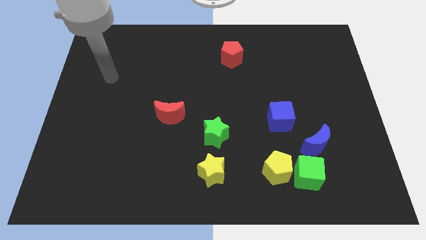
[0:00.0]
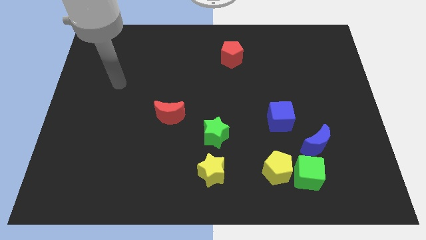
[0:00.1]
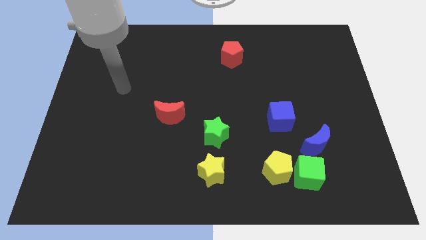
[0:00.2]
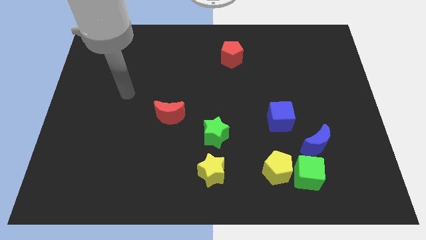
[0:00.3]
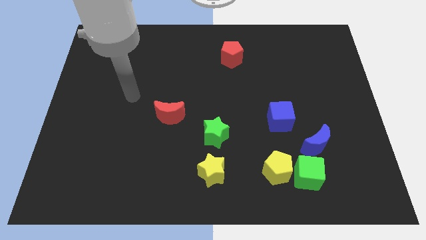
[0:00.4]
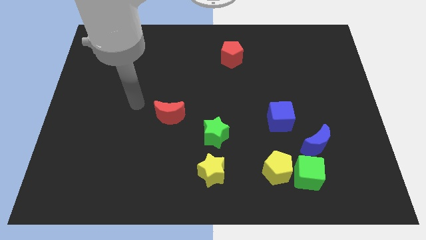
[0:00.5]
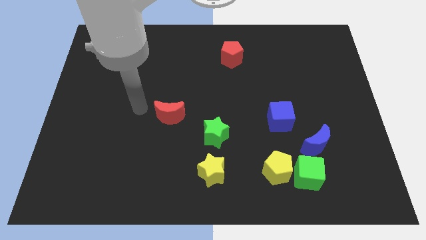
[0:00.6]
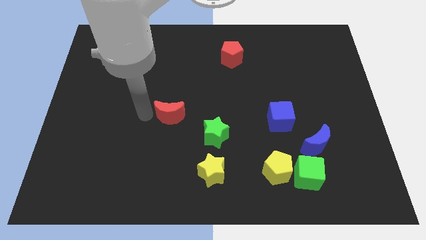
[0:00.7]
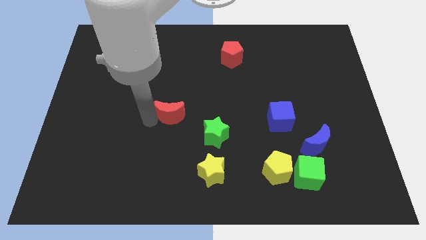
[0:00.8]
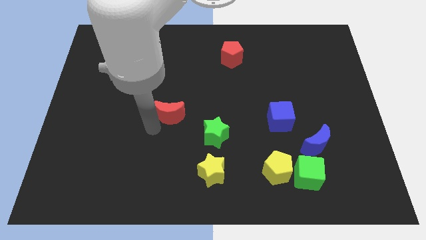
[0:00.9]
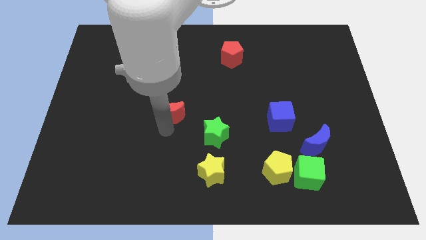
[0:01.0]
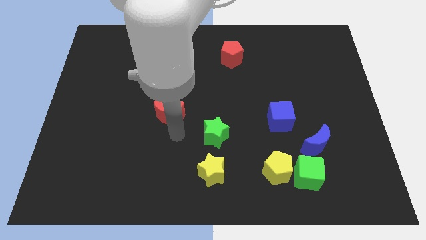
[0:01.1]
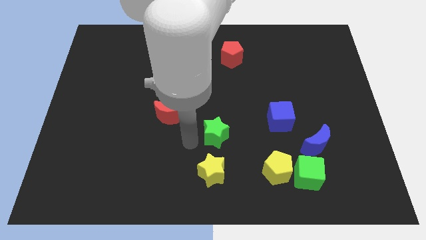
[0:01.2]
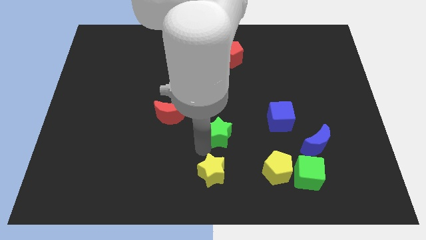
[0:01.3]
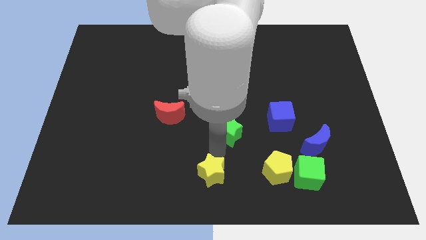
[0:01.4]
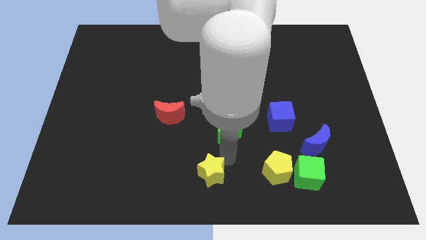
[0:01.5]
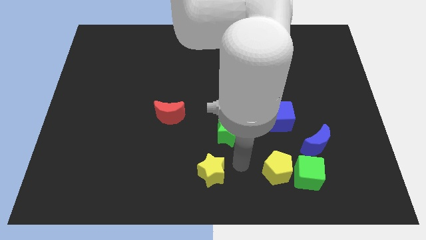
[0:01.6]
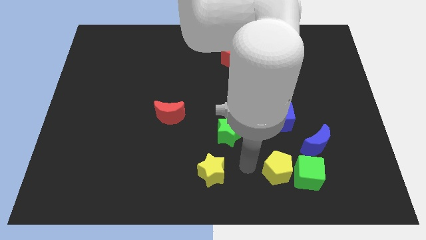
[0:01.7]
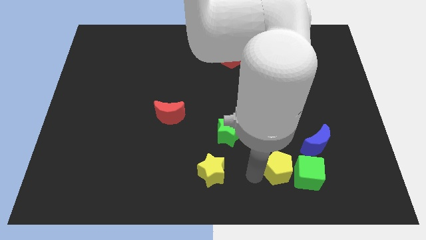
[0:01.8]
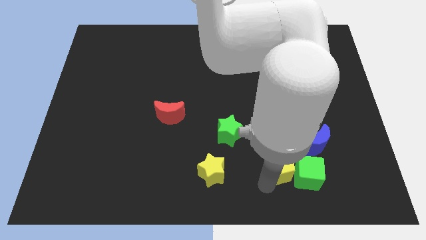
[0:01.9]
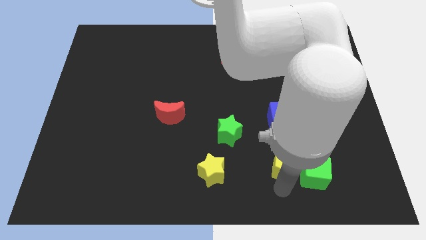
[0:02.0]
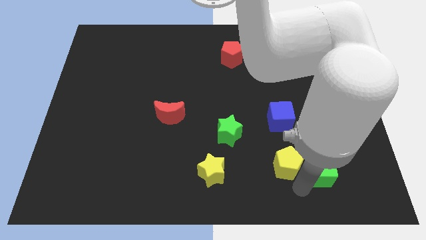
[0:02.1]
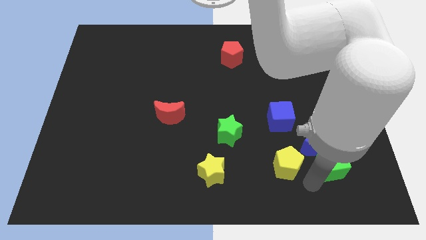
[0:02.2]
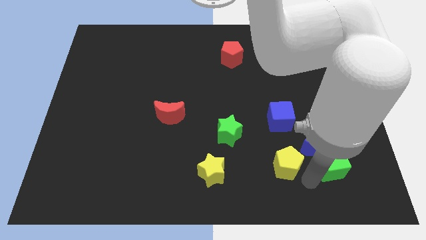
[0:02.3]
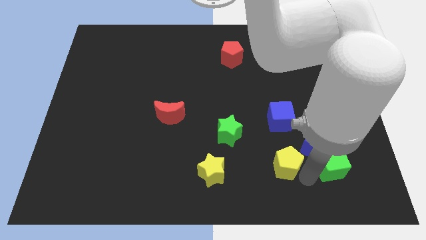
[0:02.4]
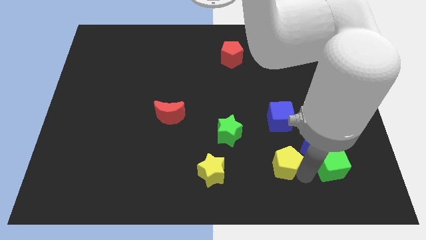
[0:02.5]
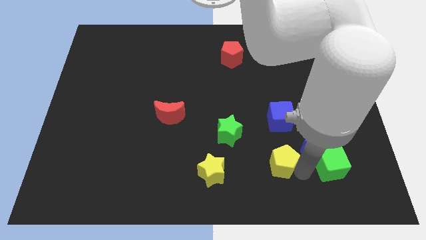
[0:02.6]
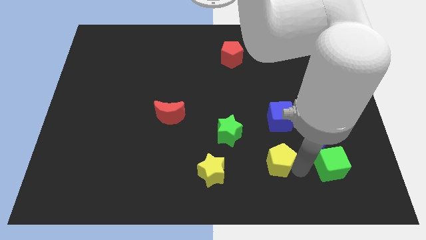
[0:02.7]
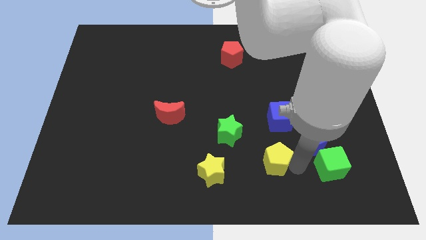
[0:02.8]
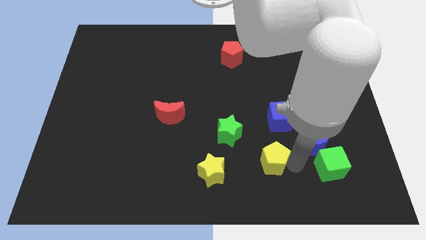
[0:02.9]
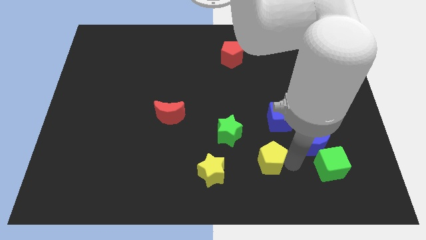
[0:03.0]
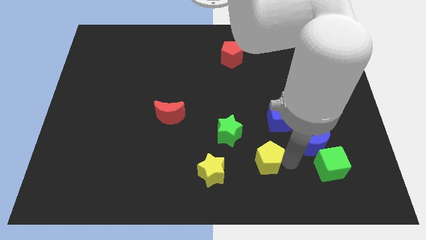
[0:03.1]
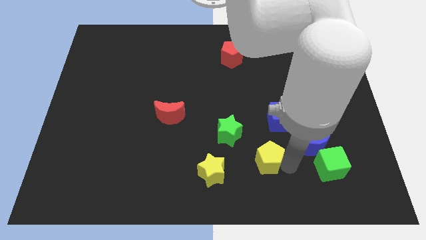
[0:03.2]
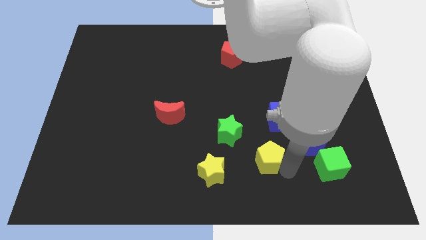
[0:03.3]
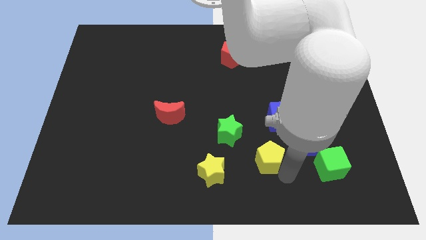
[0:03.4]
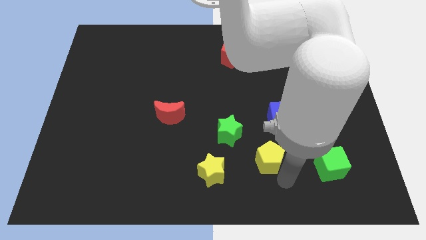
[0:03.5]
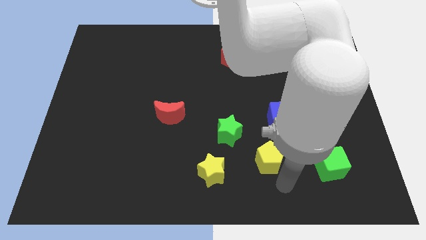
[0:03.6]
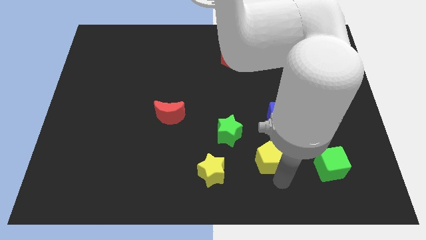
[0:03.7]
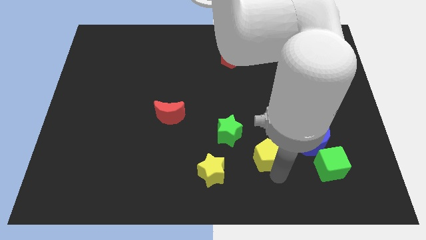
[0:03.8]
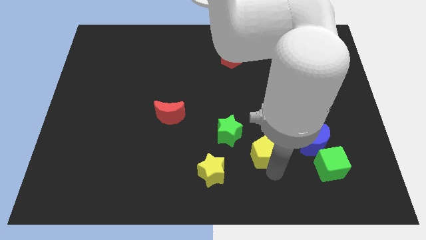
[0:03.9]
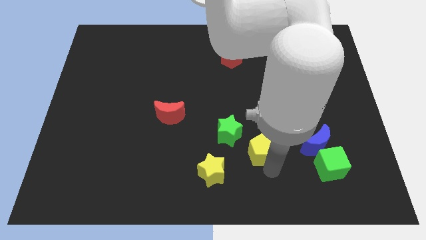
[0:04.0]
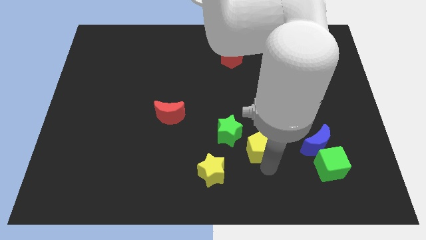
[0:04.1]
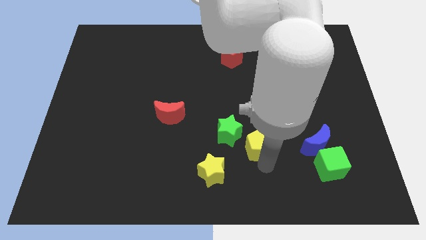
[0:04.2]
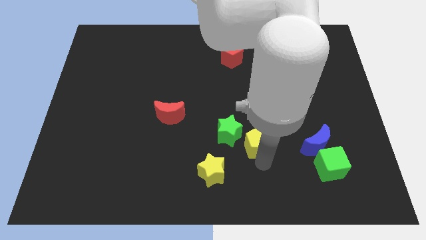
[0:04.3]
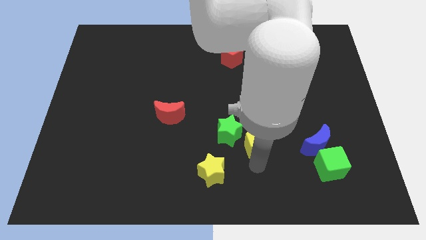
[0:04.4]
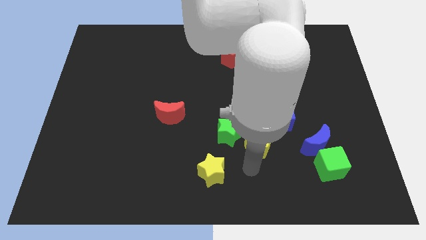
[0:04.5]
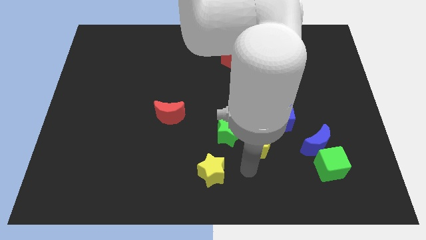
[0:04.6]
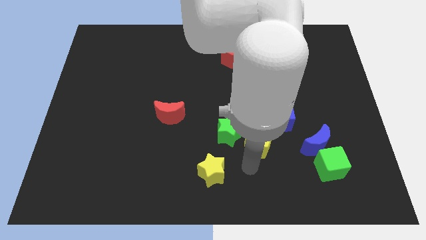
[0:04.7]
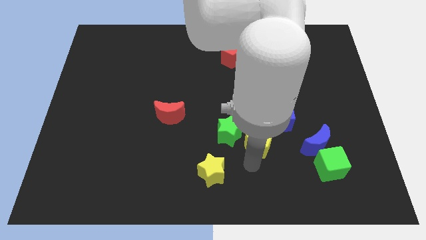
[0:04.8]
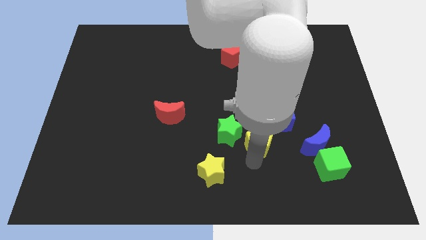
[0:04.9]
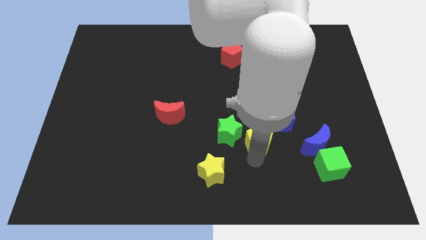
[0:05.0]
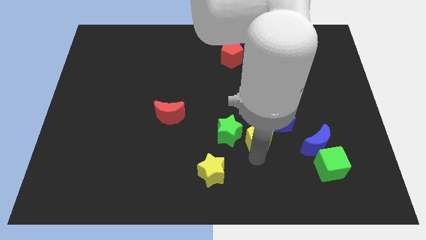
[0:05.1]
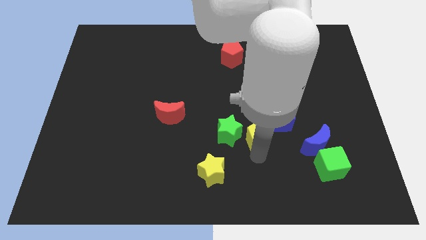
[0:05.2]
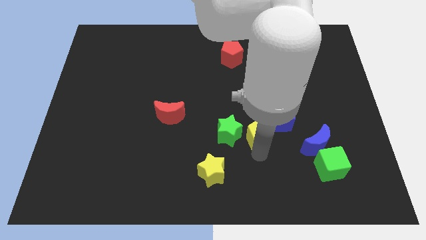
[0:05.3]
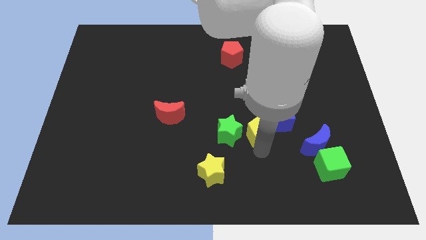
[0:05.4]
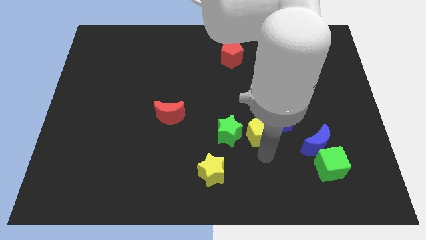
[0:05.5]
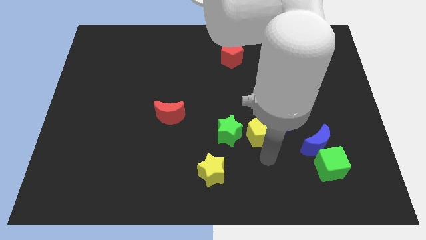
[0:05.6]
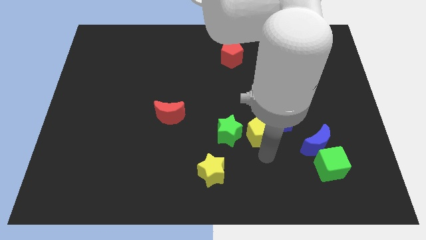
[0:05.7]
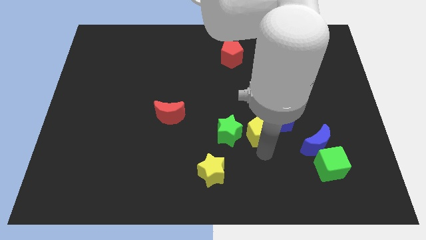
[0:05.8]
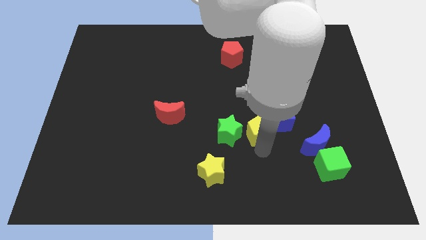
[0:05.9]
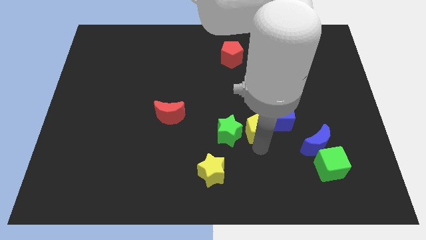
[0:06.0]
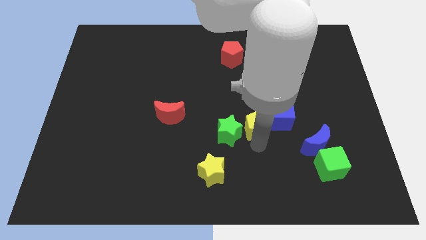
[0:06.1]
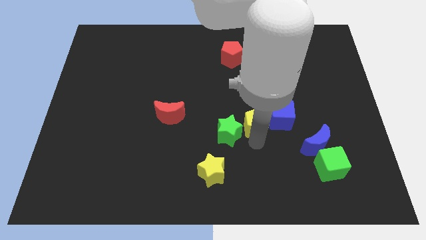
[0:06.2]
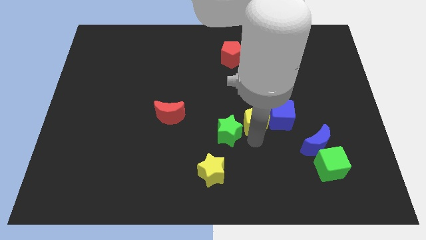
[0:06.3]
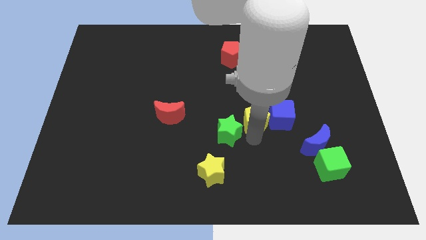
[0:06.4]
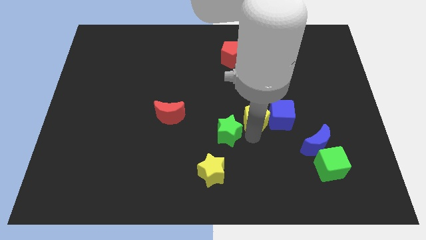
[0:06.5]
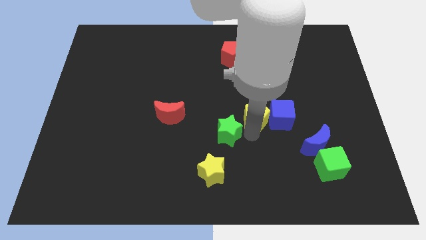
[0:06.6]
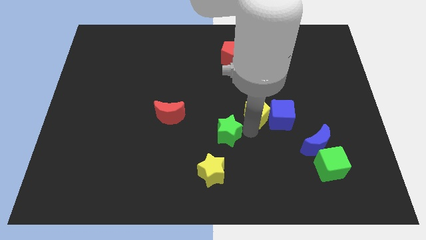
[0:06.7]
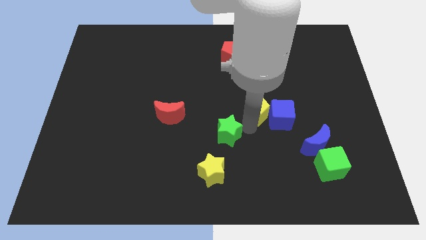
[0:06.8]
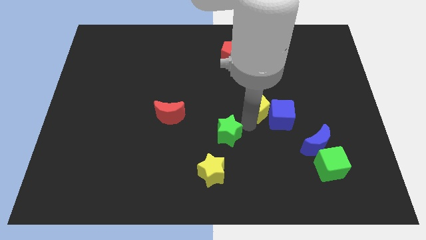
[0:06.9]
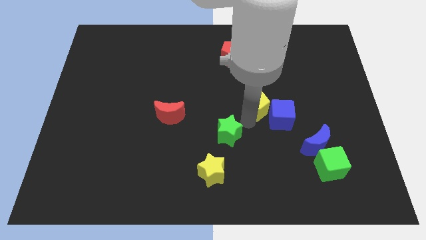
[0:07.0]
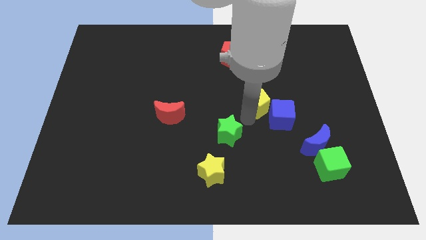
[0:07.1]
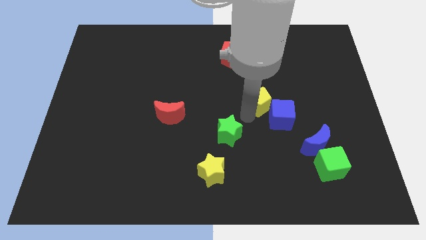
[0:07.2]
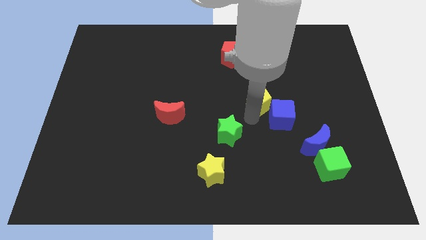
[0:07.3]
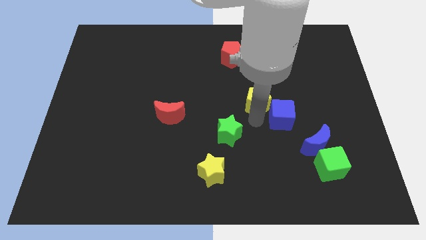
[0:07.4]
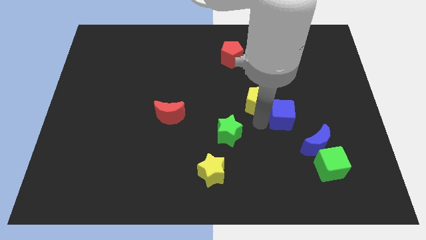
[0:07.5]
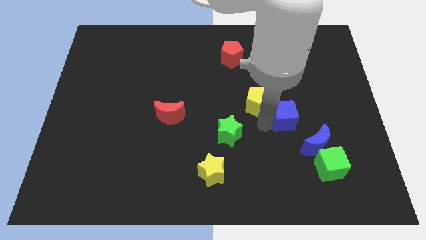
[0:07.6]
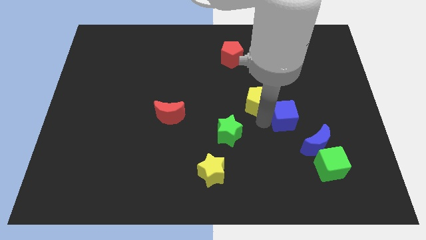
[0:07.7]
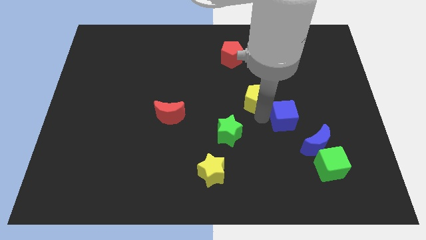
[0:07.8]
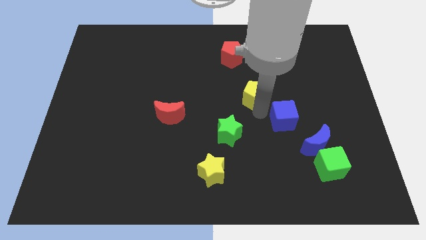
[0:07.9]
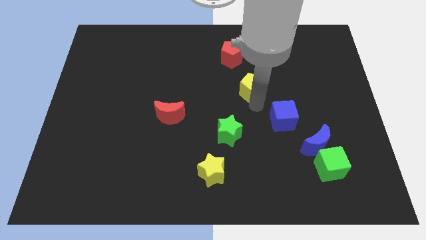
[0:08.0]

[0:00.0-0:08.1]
move the yellow pentagon upwards
